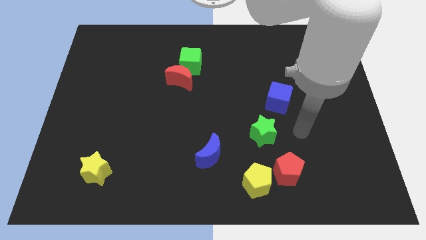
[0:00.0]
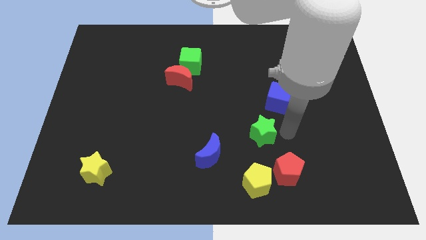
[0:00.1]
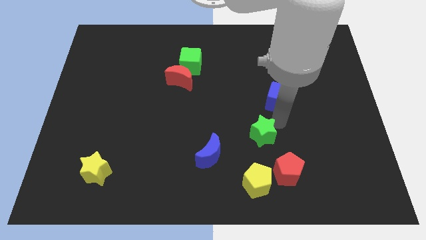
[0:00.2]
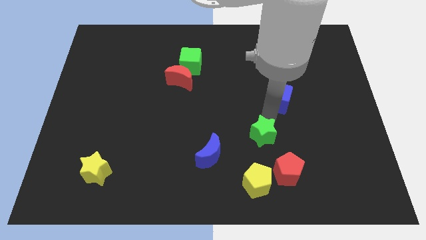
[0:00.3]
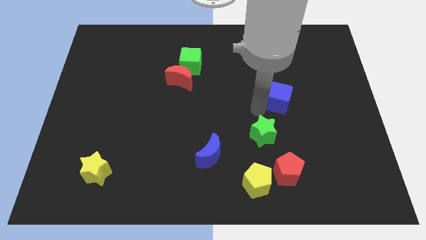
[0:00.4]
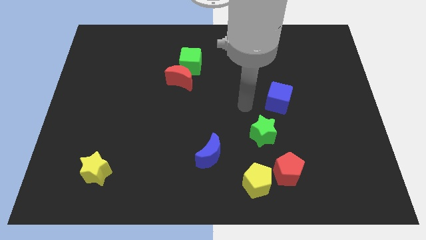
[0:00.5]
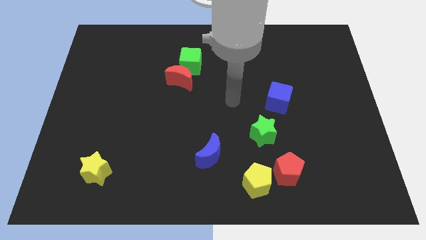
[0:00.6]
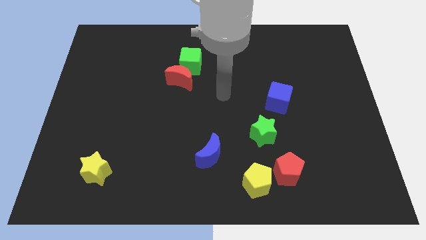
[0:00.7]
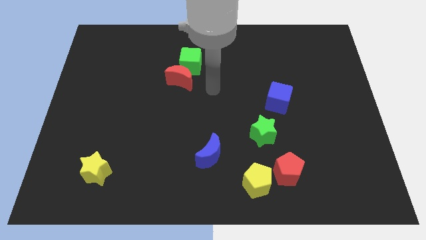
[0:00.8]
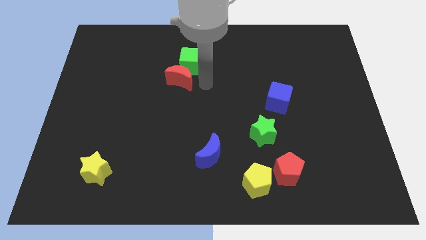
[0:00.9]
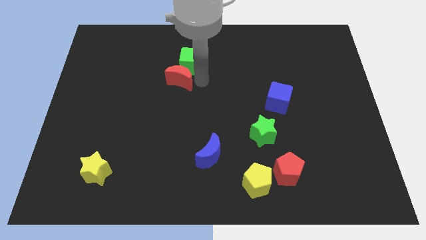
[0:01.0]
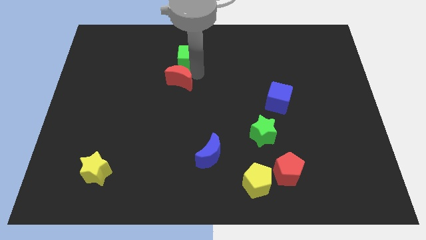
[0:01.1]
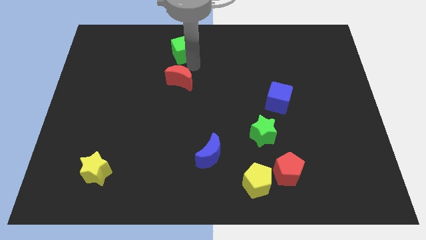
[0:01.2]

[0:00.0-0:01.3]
pull the red moon apart from the green cube

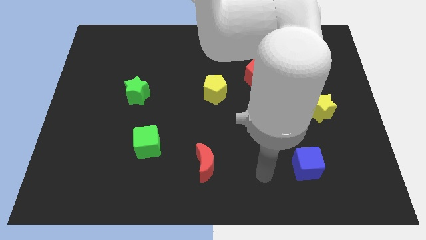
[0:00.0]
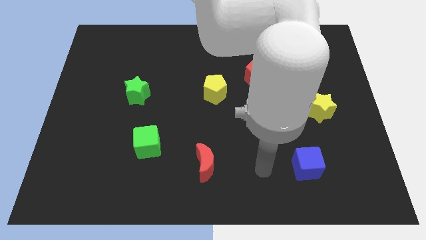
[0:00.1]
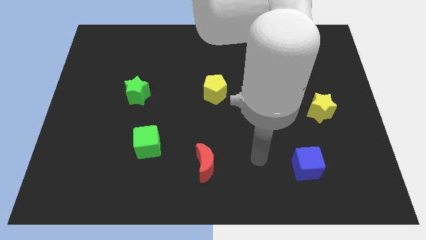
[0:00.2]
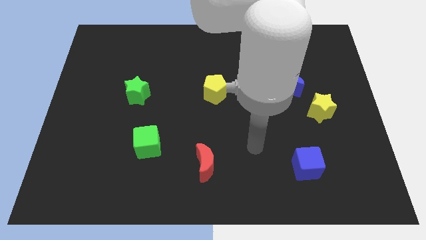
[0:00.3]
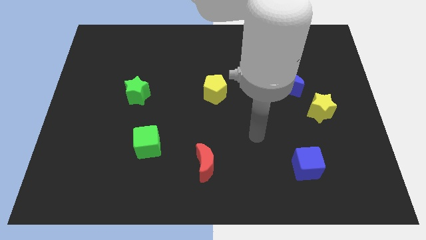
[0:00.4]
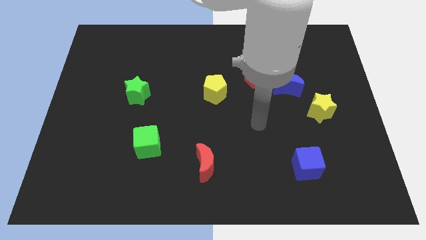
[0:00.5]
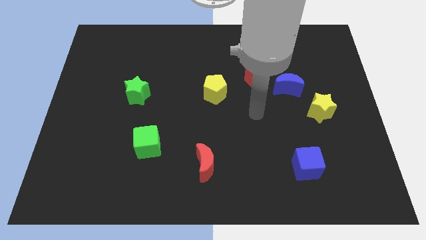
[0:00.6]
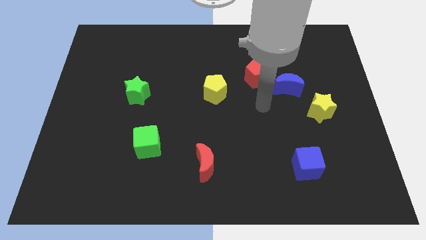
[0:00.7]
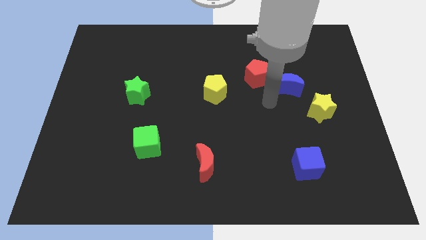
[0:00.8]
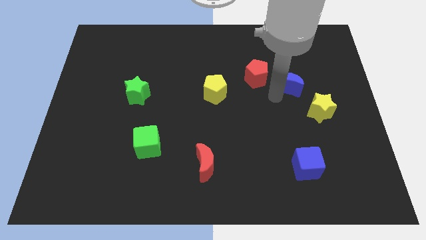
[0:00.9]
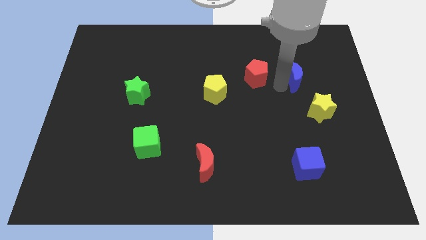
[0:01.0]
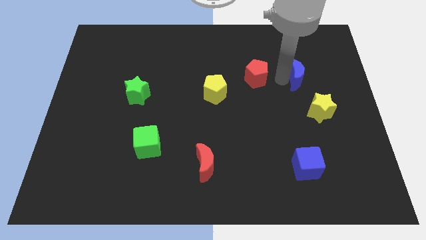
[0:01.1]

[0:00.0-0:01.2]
move the red pentagon away from the blue moon

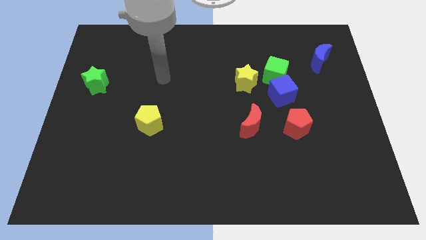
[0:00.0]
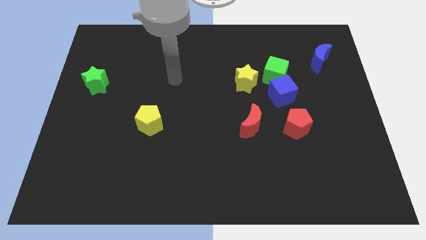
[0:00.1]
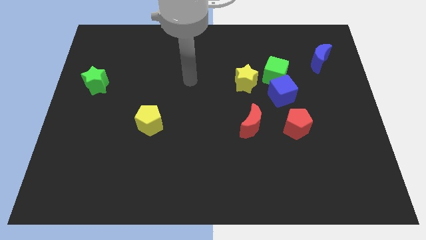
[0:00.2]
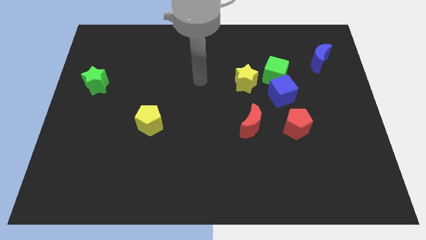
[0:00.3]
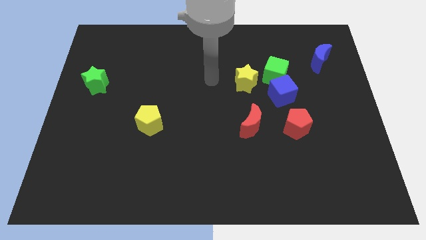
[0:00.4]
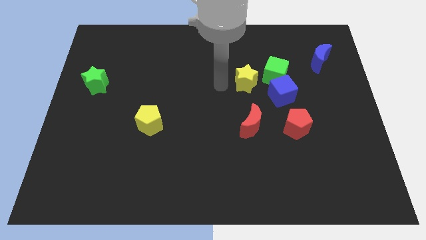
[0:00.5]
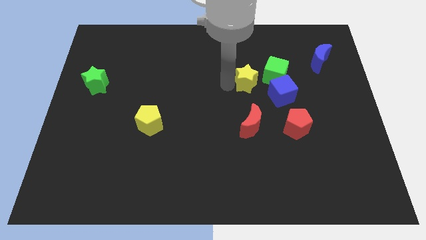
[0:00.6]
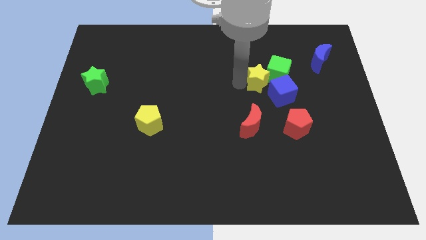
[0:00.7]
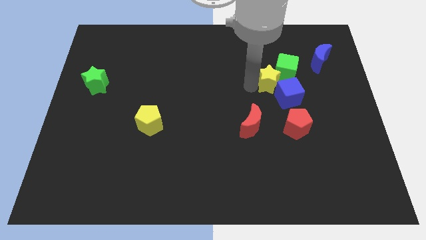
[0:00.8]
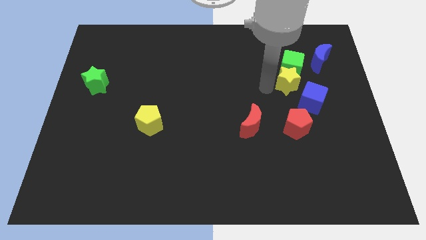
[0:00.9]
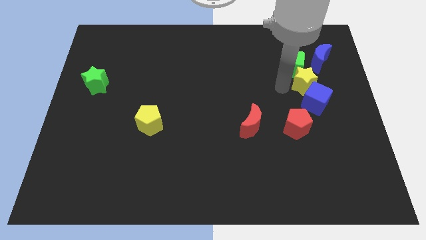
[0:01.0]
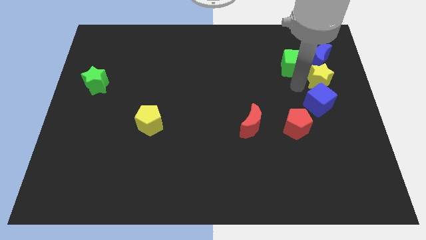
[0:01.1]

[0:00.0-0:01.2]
pull the green cube apart from the blue cube and yellow star

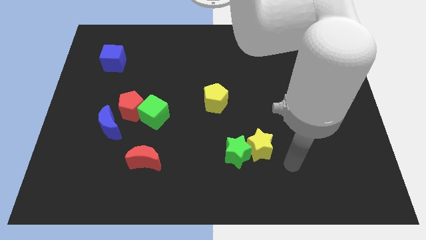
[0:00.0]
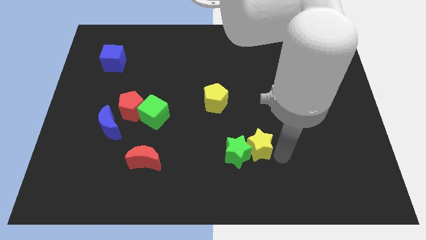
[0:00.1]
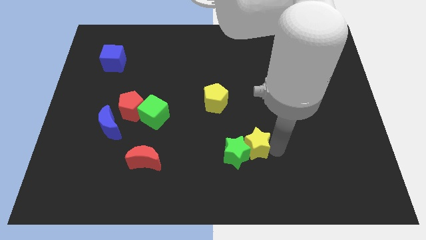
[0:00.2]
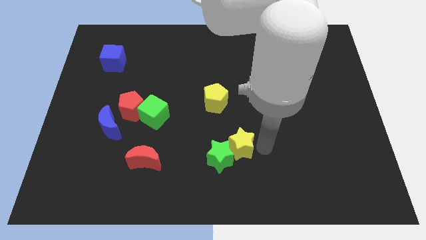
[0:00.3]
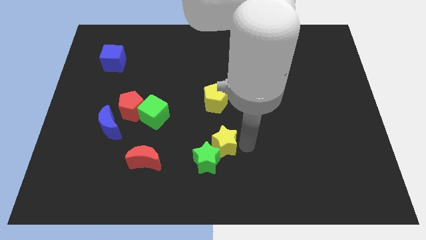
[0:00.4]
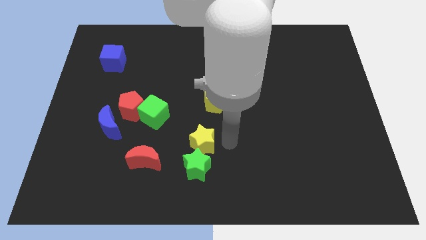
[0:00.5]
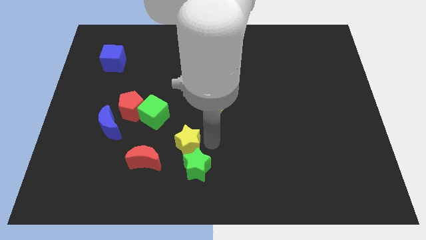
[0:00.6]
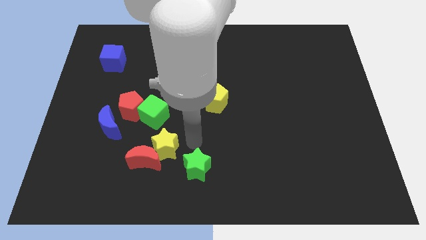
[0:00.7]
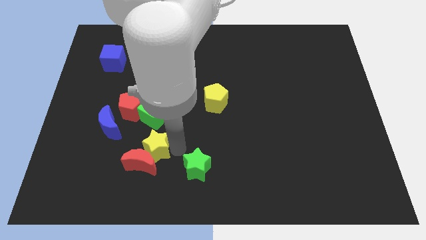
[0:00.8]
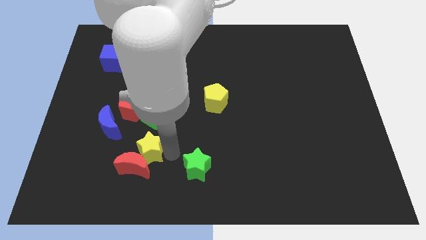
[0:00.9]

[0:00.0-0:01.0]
pull the green star apart from the yellow star

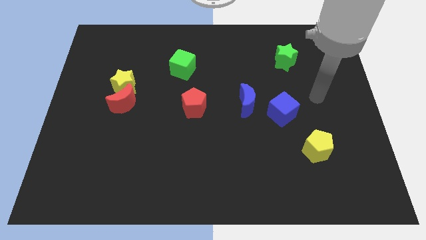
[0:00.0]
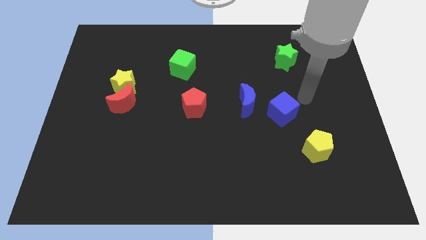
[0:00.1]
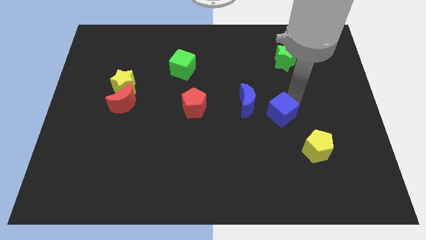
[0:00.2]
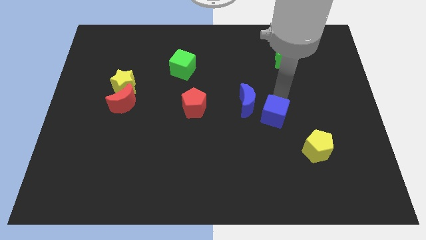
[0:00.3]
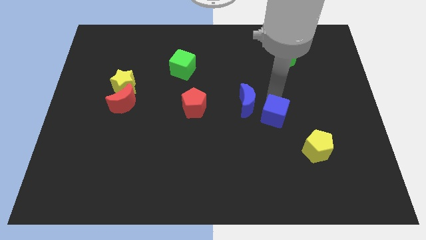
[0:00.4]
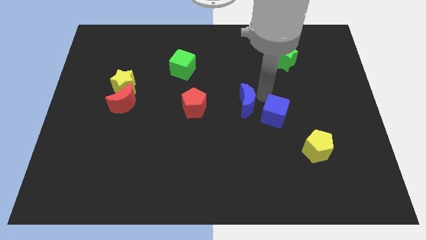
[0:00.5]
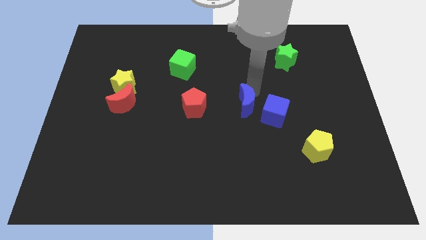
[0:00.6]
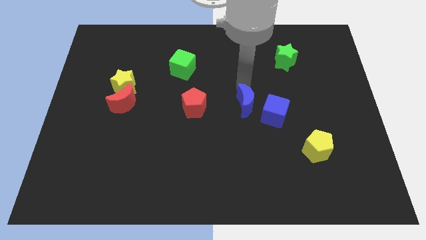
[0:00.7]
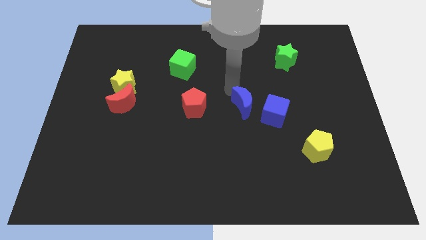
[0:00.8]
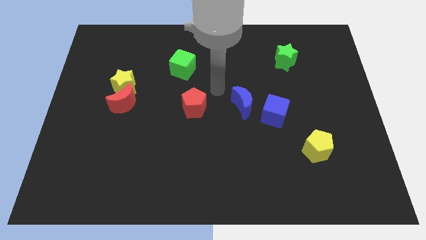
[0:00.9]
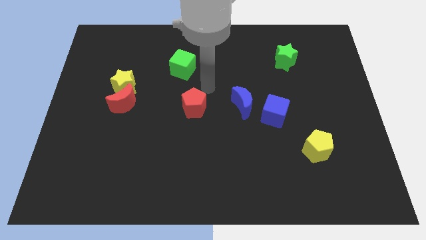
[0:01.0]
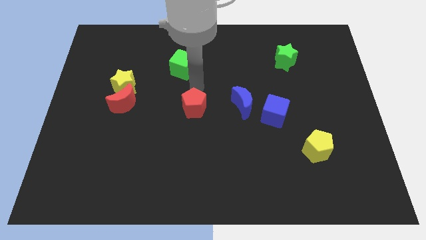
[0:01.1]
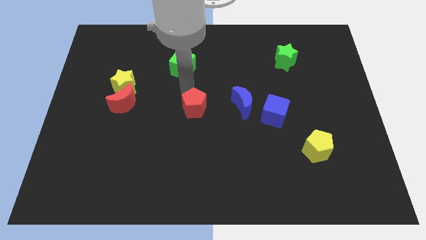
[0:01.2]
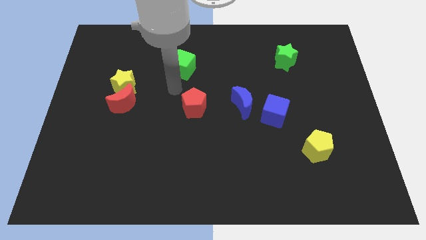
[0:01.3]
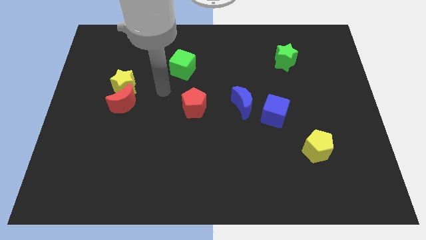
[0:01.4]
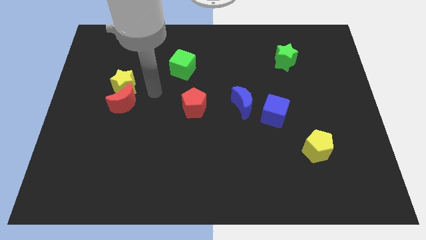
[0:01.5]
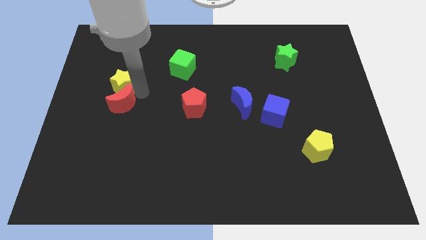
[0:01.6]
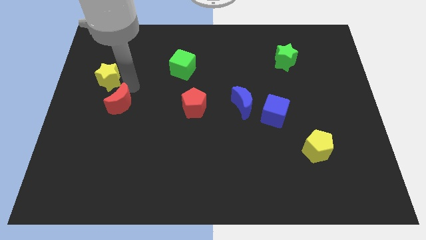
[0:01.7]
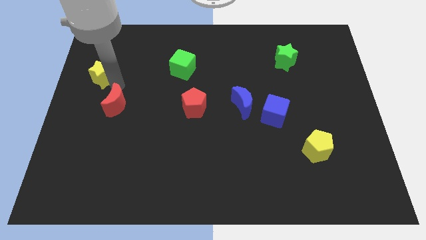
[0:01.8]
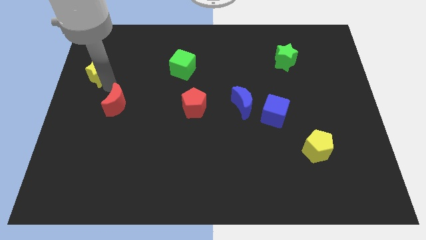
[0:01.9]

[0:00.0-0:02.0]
move the red moon away from the yellow star

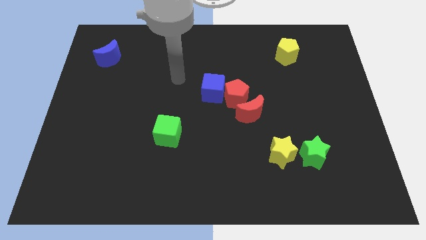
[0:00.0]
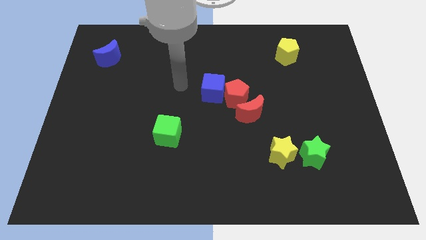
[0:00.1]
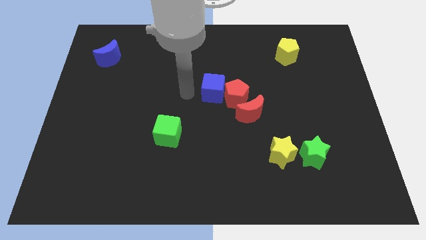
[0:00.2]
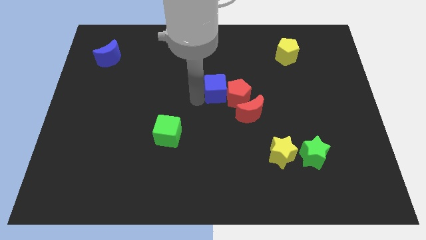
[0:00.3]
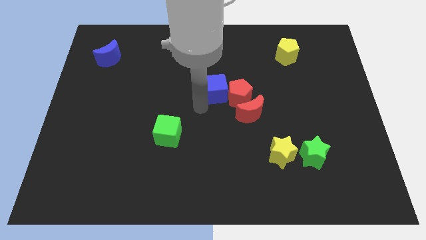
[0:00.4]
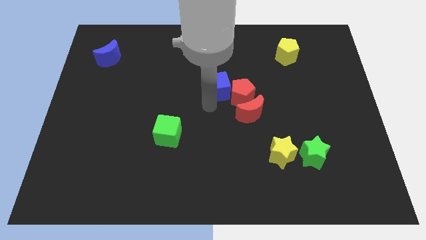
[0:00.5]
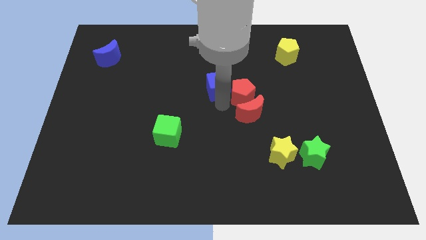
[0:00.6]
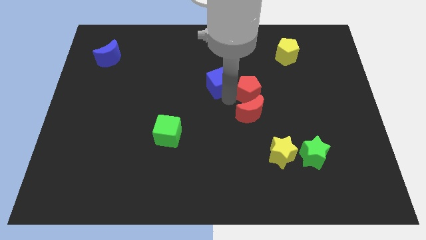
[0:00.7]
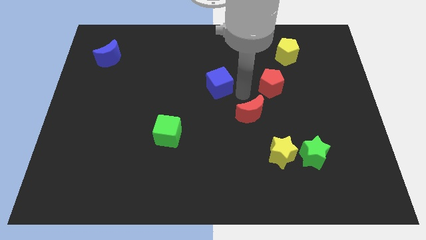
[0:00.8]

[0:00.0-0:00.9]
separate the blue cube from the red pentagon

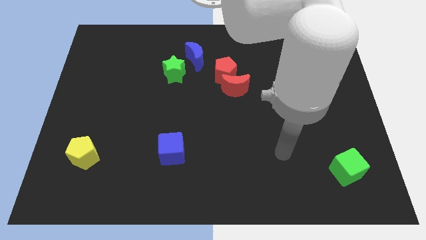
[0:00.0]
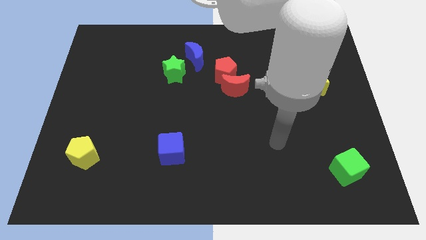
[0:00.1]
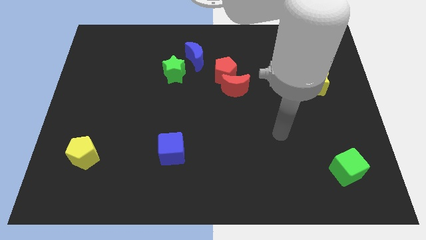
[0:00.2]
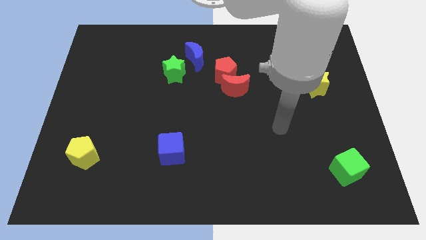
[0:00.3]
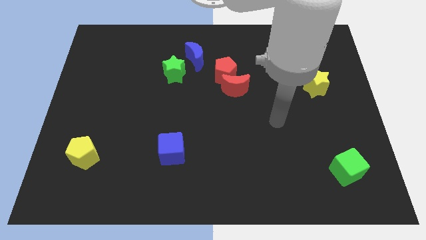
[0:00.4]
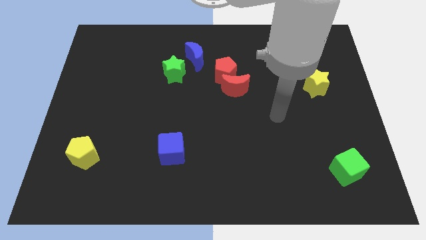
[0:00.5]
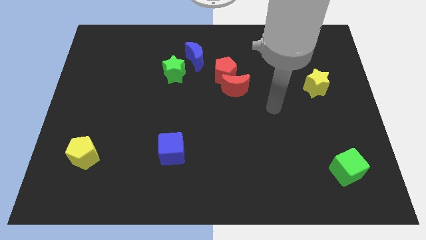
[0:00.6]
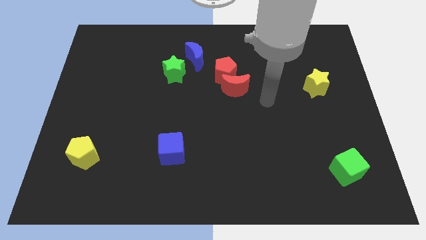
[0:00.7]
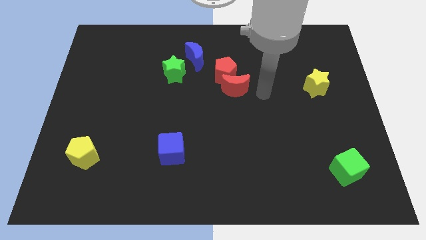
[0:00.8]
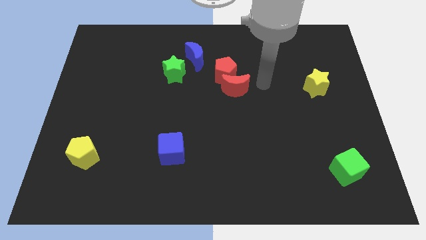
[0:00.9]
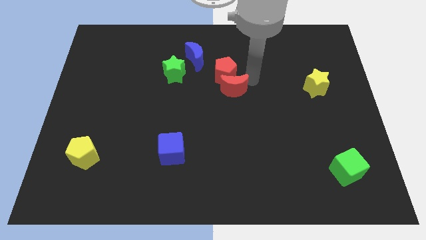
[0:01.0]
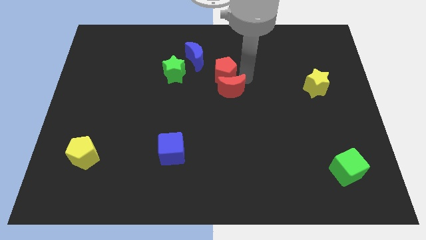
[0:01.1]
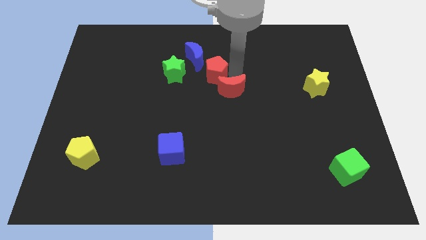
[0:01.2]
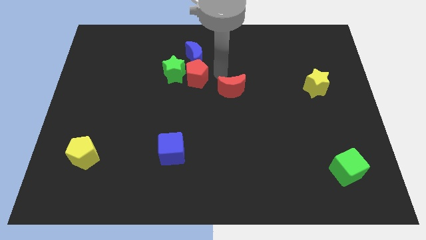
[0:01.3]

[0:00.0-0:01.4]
separate the red moon from the red pentagon

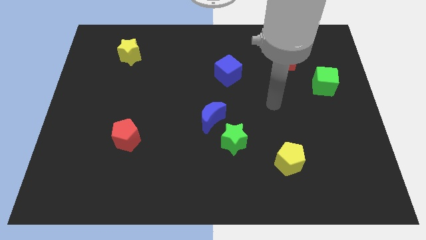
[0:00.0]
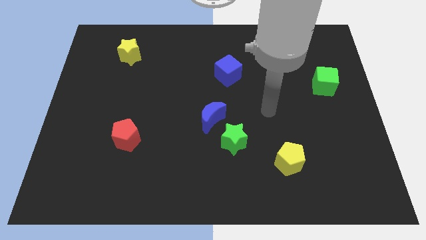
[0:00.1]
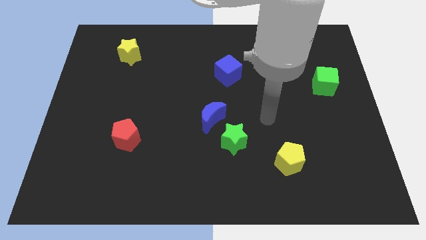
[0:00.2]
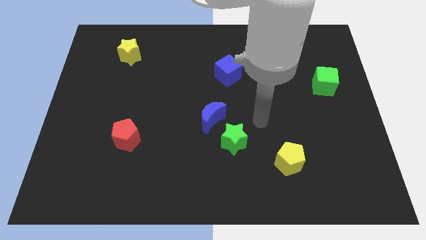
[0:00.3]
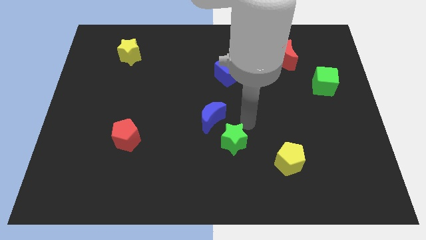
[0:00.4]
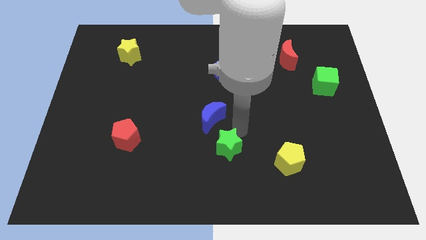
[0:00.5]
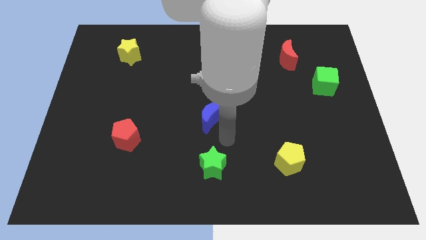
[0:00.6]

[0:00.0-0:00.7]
pull the blue moon apart from the green star
